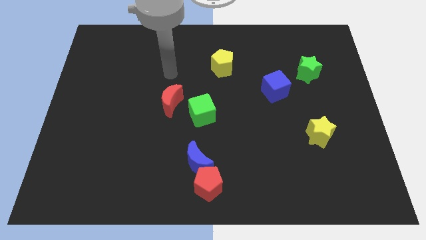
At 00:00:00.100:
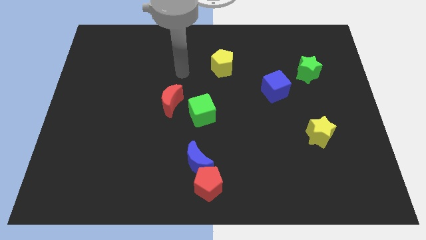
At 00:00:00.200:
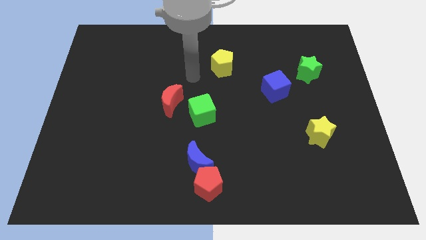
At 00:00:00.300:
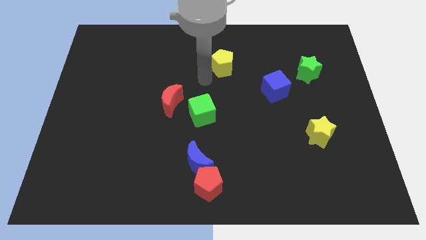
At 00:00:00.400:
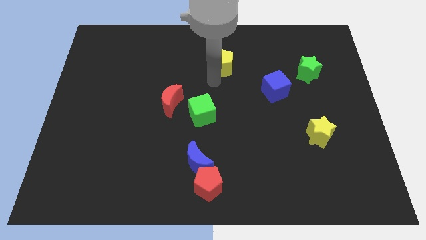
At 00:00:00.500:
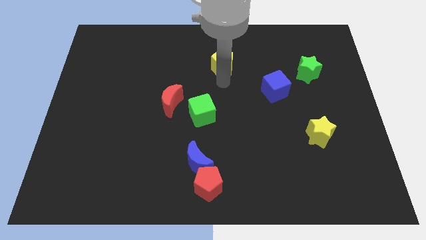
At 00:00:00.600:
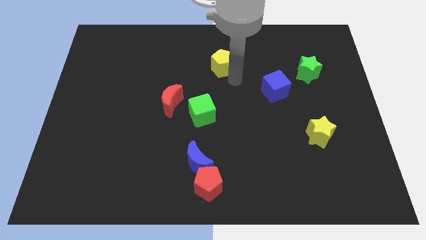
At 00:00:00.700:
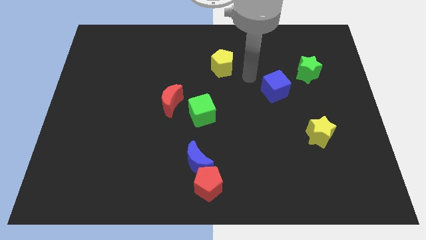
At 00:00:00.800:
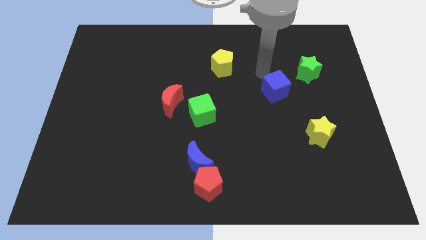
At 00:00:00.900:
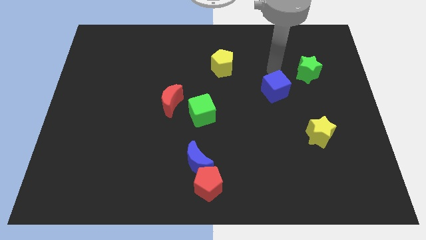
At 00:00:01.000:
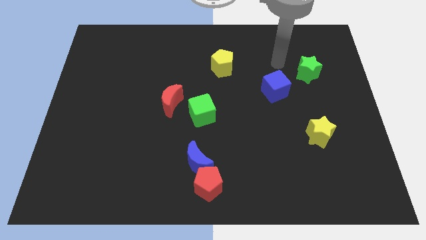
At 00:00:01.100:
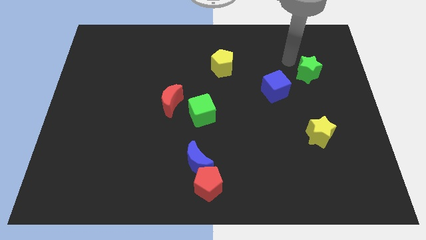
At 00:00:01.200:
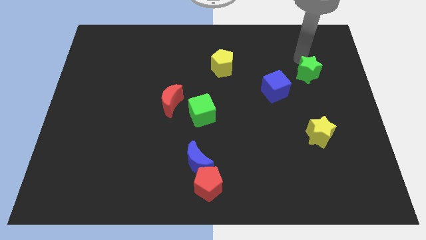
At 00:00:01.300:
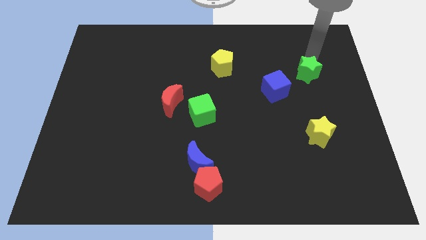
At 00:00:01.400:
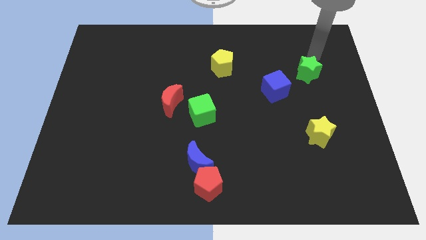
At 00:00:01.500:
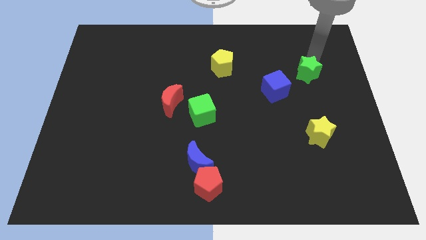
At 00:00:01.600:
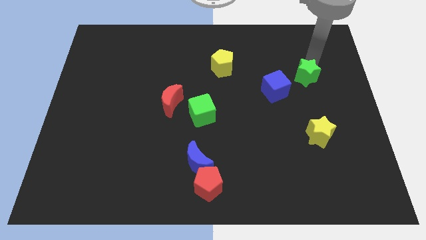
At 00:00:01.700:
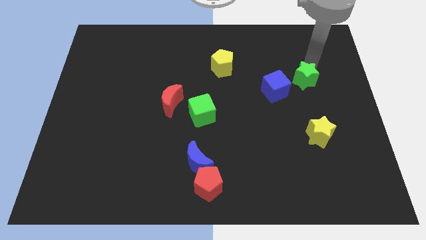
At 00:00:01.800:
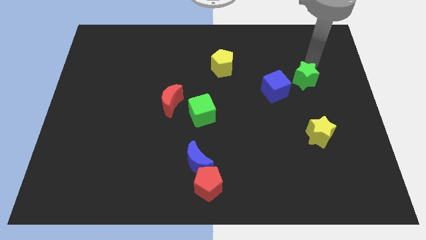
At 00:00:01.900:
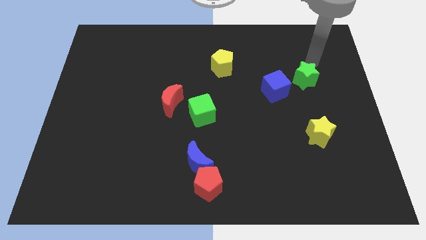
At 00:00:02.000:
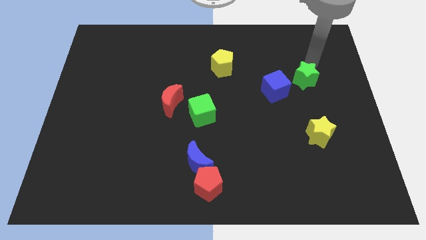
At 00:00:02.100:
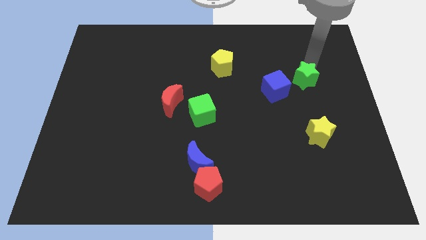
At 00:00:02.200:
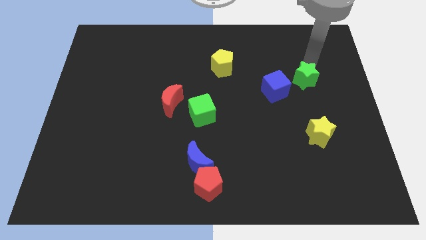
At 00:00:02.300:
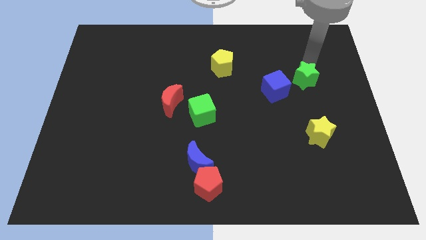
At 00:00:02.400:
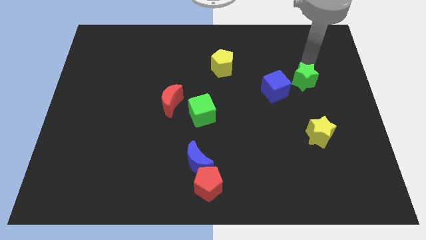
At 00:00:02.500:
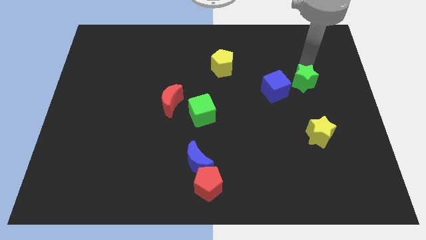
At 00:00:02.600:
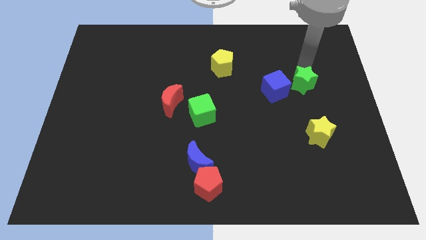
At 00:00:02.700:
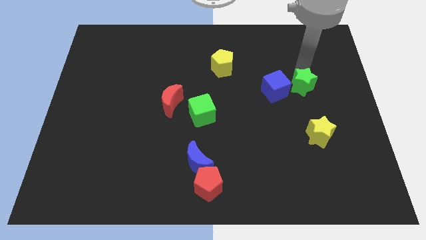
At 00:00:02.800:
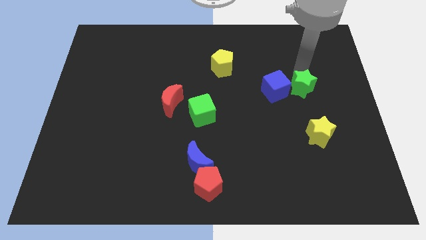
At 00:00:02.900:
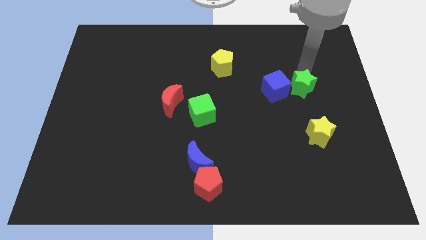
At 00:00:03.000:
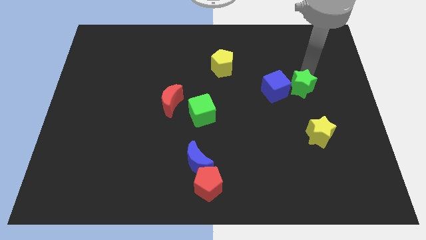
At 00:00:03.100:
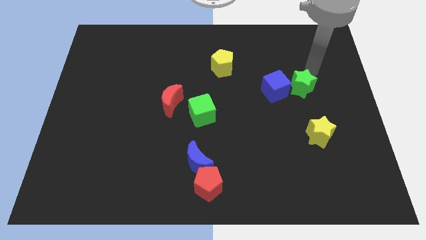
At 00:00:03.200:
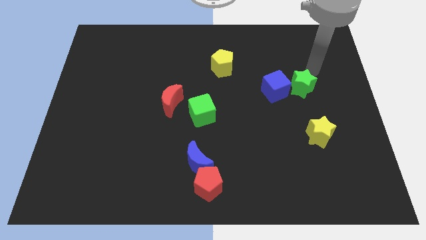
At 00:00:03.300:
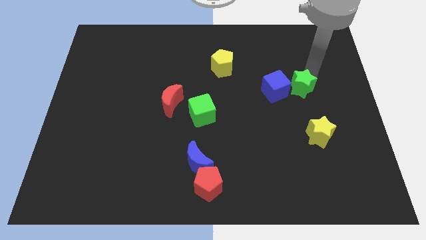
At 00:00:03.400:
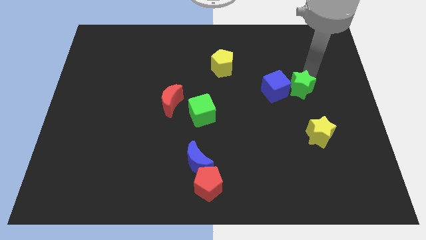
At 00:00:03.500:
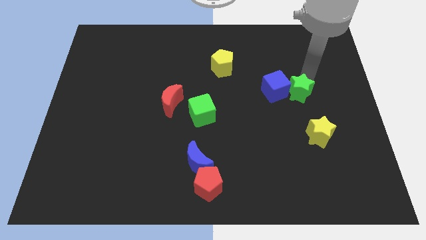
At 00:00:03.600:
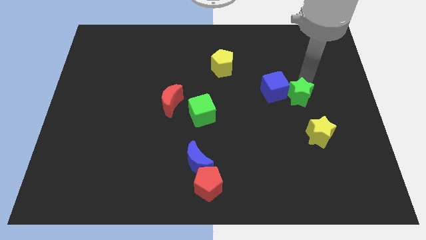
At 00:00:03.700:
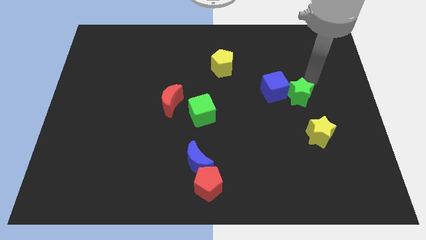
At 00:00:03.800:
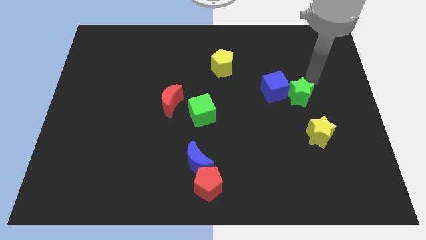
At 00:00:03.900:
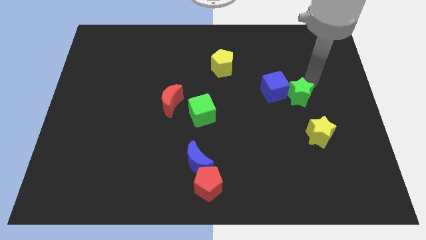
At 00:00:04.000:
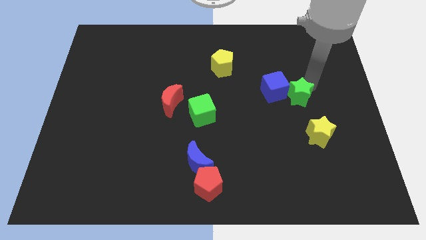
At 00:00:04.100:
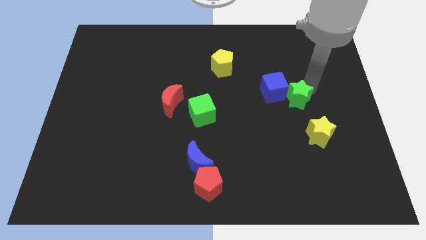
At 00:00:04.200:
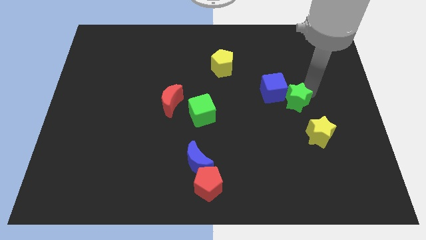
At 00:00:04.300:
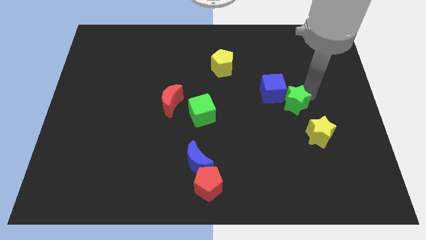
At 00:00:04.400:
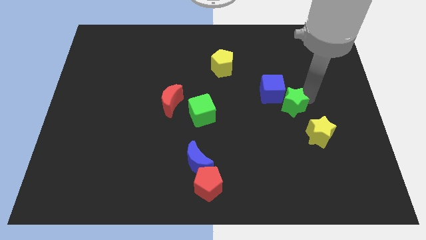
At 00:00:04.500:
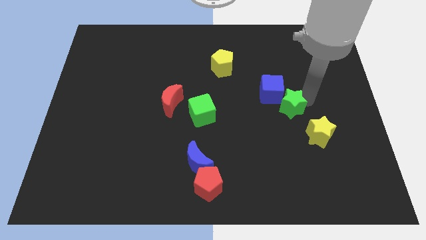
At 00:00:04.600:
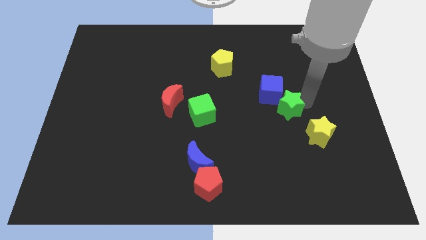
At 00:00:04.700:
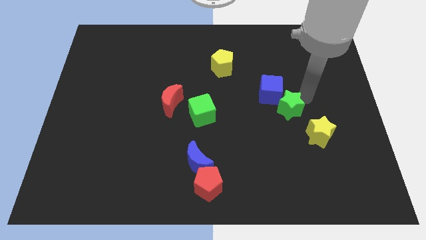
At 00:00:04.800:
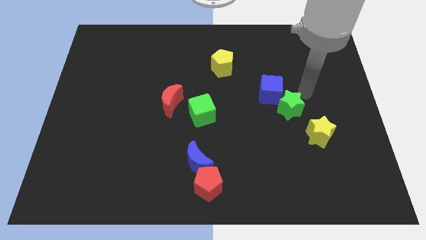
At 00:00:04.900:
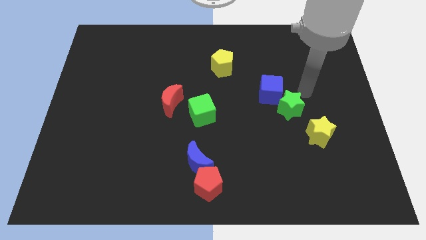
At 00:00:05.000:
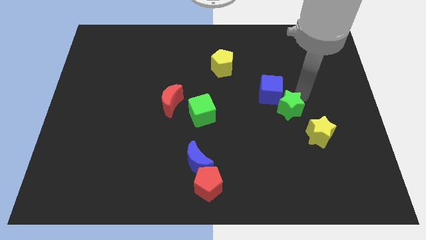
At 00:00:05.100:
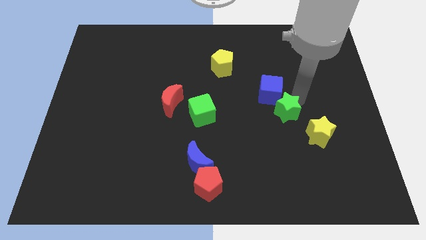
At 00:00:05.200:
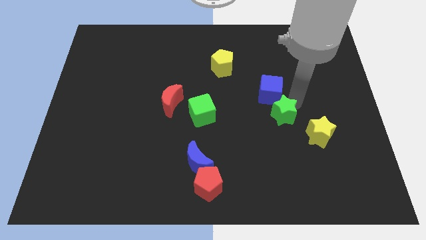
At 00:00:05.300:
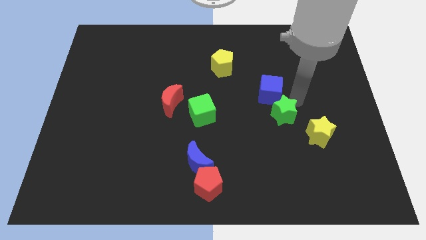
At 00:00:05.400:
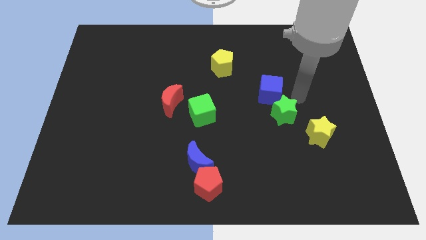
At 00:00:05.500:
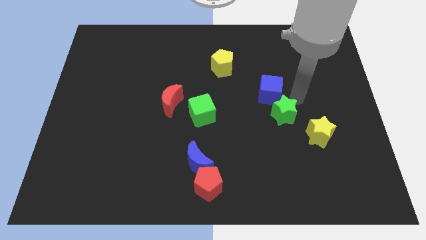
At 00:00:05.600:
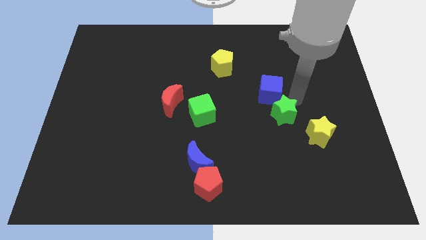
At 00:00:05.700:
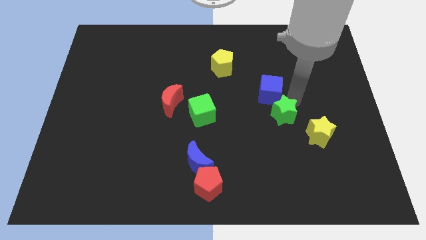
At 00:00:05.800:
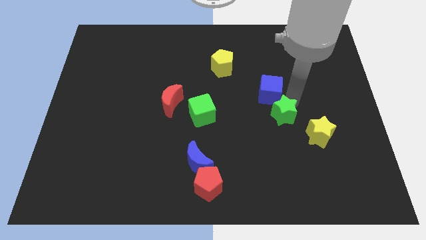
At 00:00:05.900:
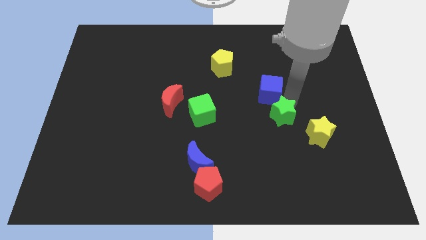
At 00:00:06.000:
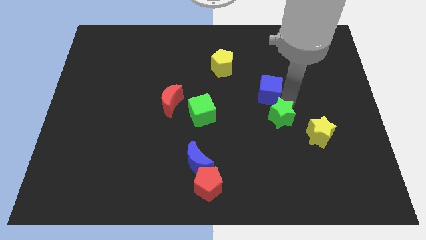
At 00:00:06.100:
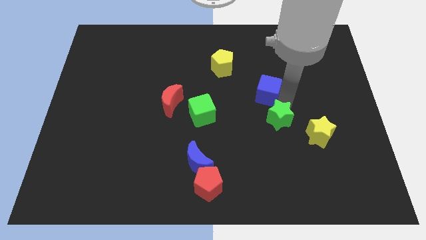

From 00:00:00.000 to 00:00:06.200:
slide the green star left of the yellow star

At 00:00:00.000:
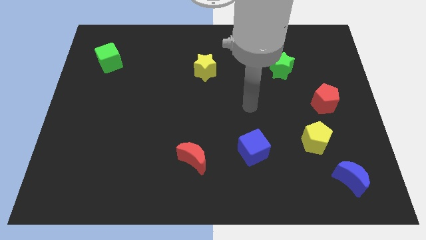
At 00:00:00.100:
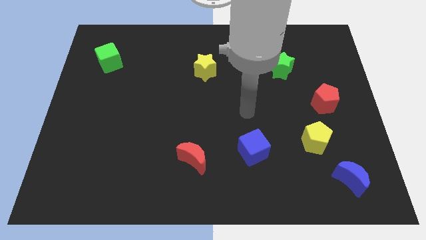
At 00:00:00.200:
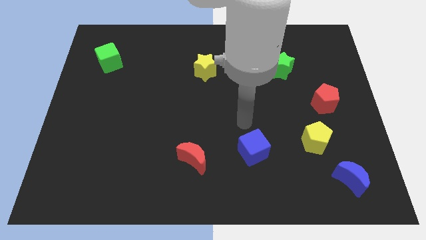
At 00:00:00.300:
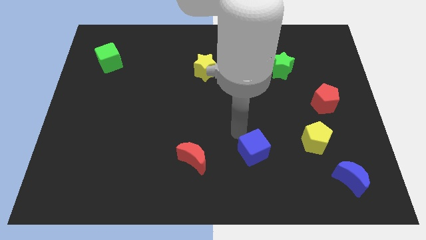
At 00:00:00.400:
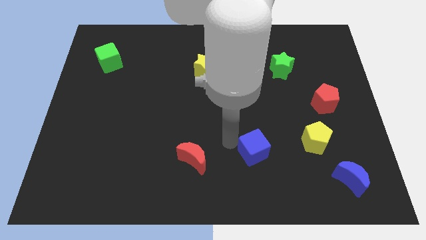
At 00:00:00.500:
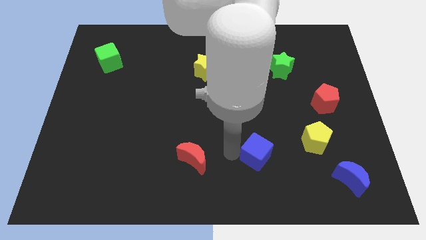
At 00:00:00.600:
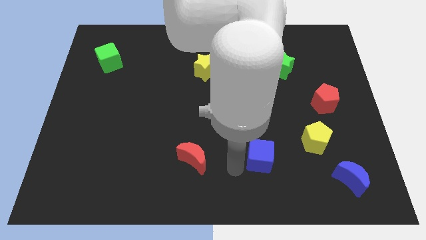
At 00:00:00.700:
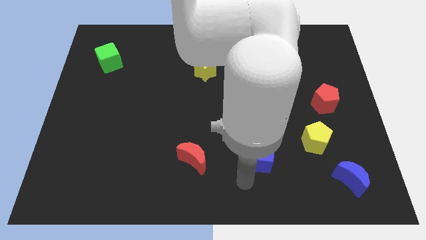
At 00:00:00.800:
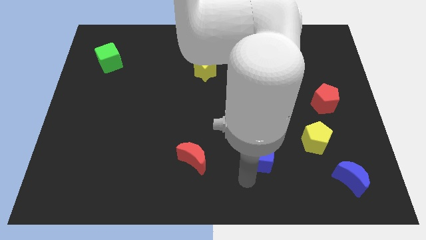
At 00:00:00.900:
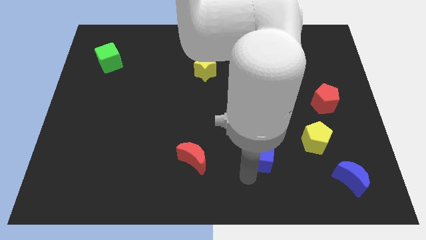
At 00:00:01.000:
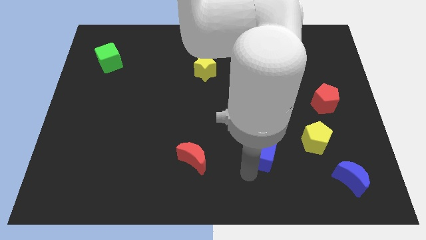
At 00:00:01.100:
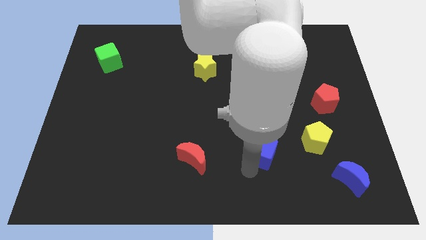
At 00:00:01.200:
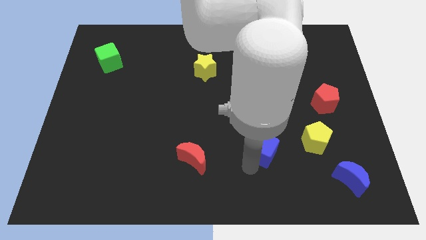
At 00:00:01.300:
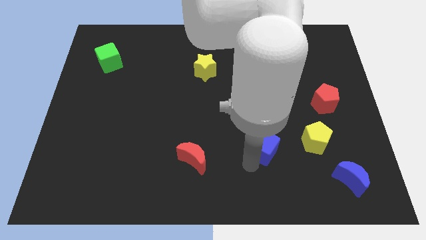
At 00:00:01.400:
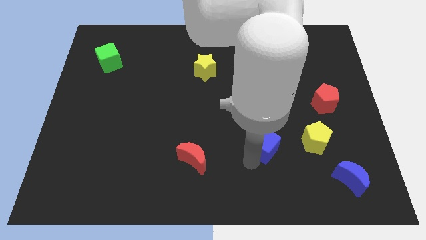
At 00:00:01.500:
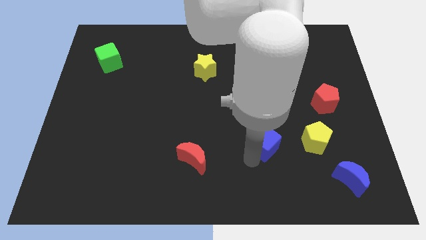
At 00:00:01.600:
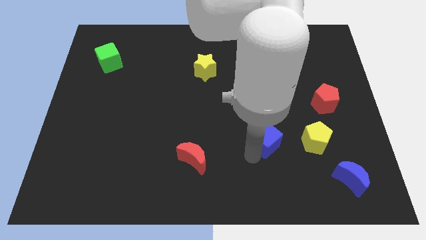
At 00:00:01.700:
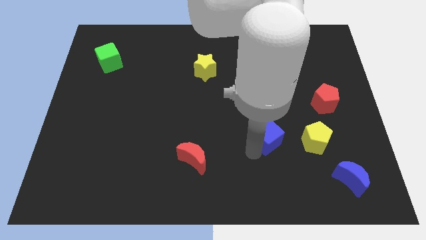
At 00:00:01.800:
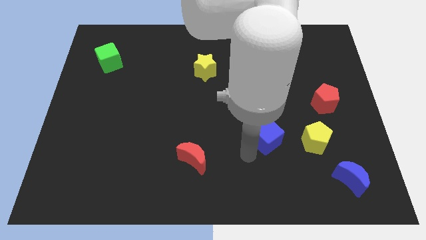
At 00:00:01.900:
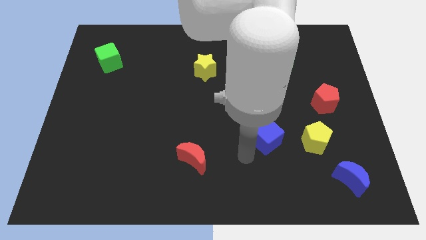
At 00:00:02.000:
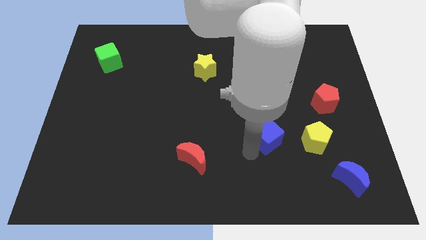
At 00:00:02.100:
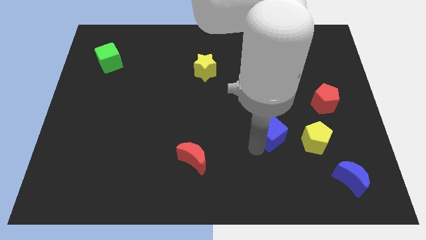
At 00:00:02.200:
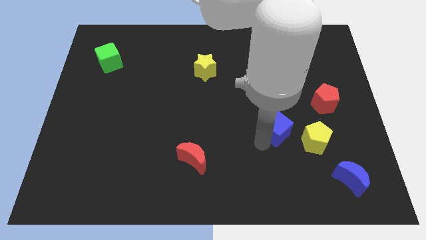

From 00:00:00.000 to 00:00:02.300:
move the blue cube to the top left of the yellow pentagon
